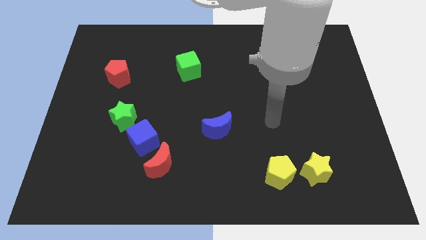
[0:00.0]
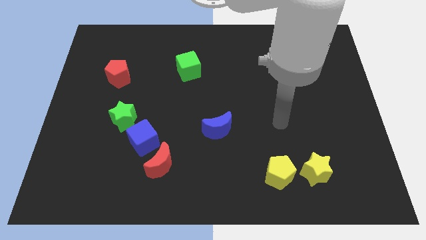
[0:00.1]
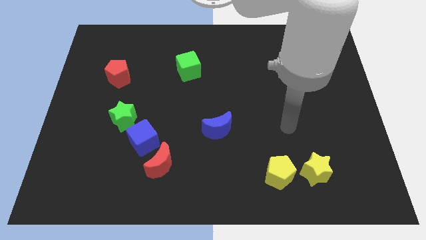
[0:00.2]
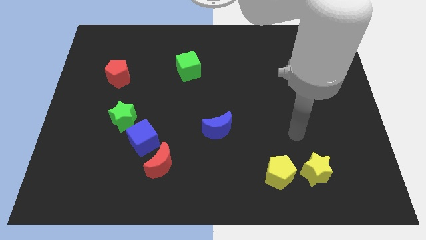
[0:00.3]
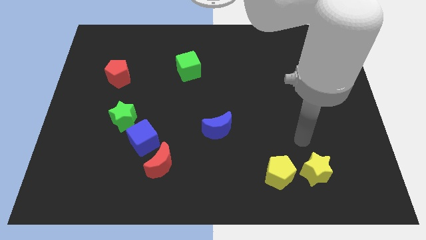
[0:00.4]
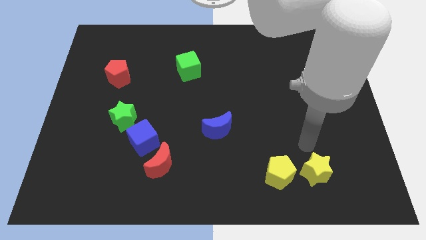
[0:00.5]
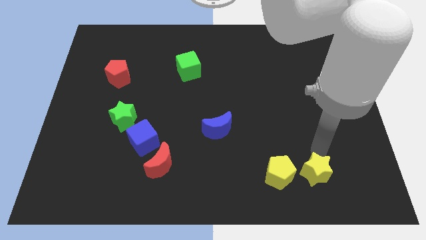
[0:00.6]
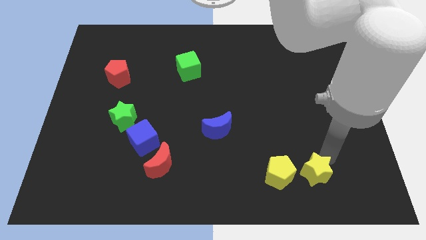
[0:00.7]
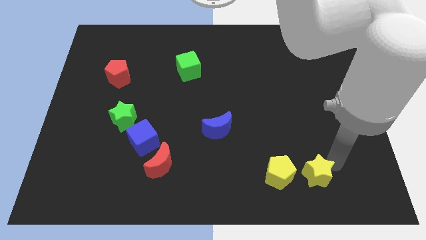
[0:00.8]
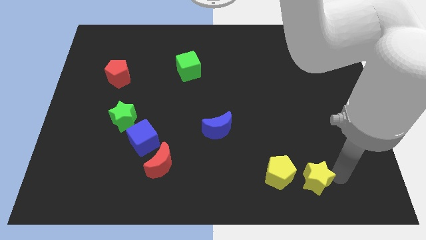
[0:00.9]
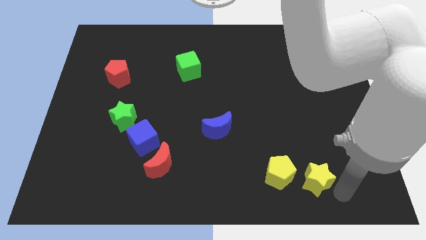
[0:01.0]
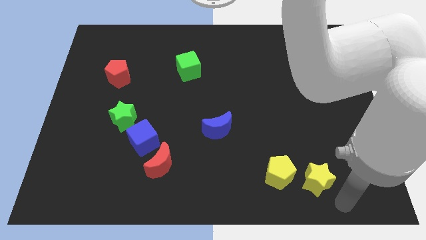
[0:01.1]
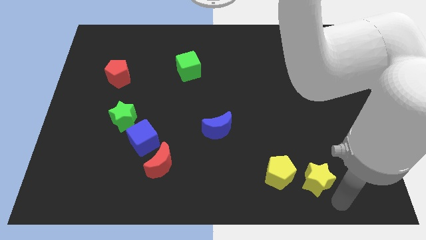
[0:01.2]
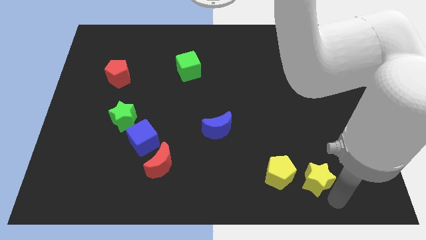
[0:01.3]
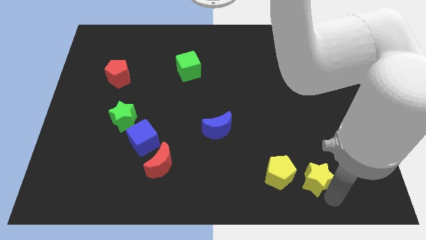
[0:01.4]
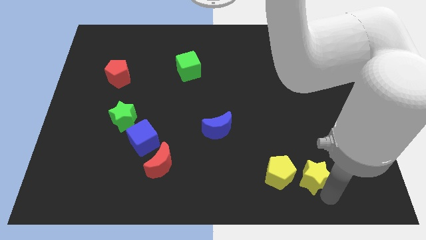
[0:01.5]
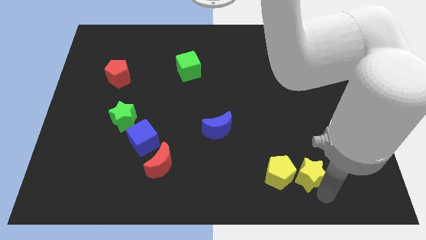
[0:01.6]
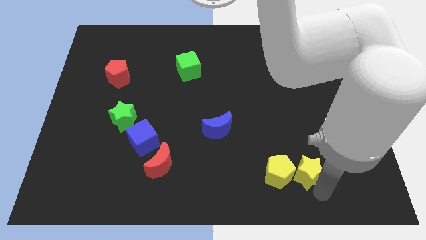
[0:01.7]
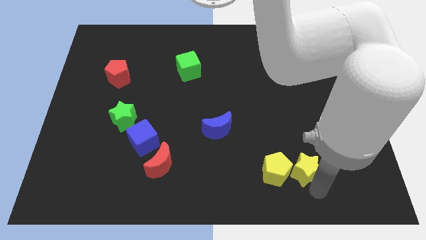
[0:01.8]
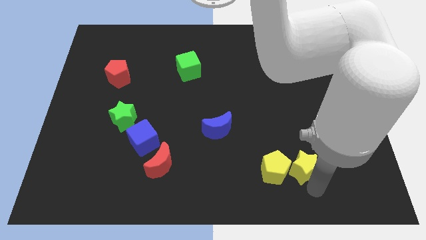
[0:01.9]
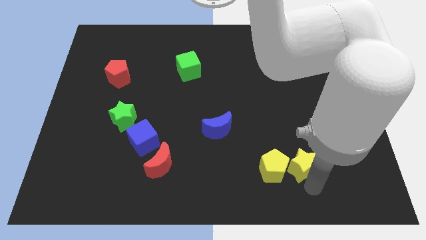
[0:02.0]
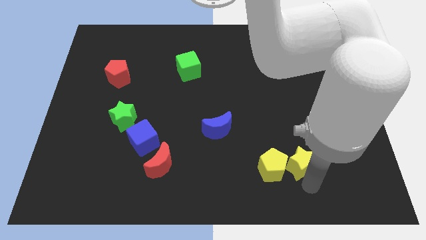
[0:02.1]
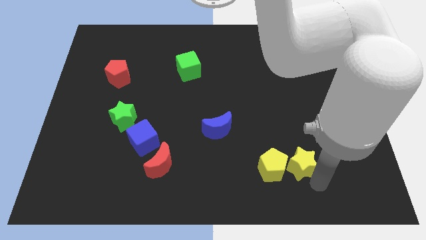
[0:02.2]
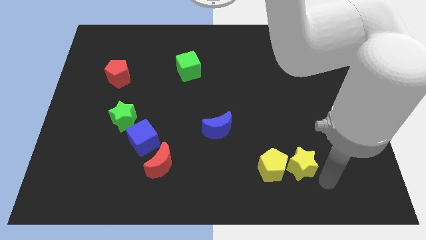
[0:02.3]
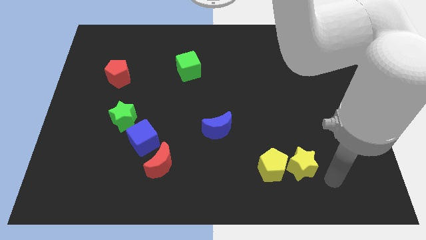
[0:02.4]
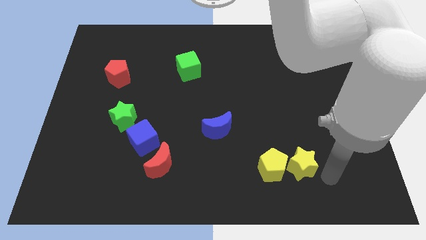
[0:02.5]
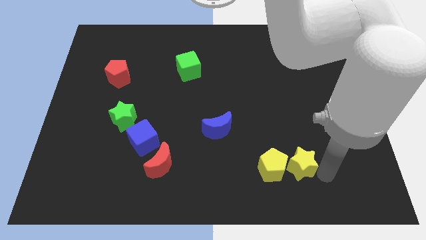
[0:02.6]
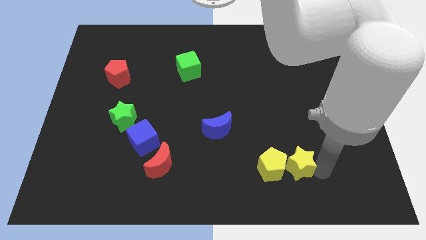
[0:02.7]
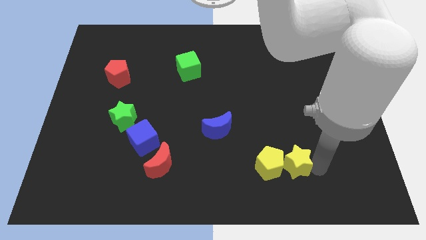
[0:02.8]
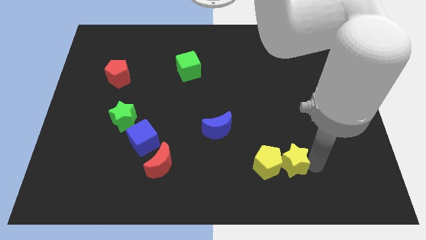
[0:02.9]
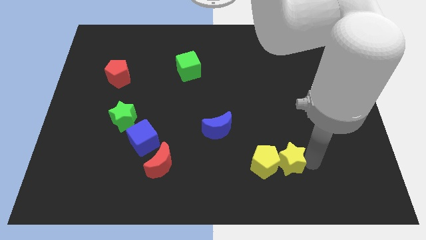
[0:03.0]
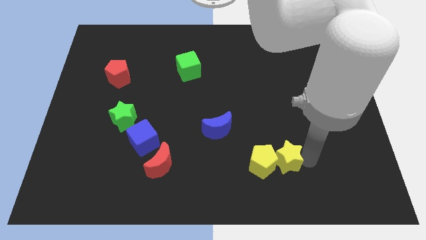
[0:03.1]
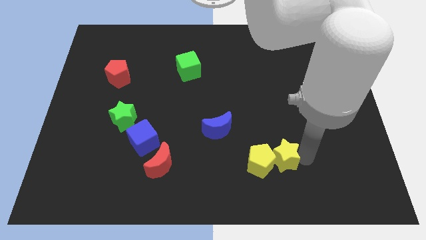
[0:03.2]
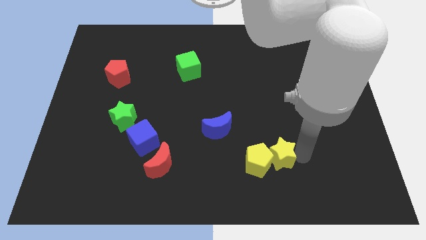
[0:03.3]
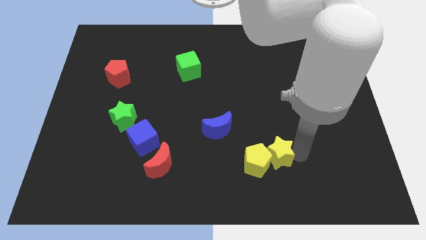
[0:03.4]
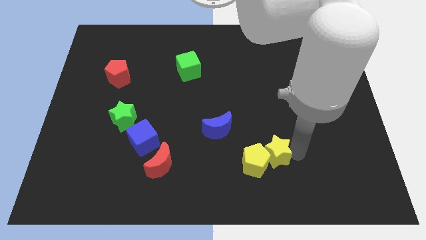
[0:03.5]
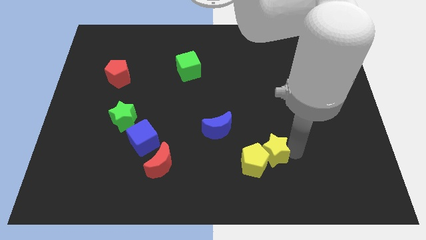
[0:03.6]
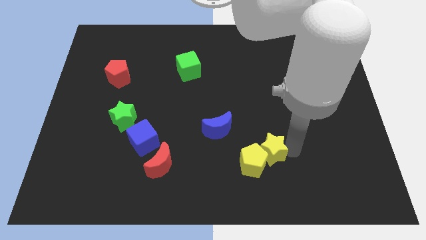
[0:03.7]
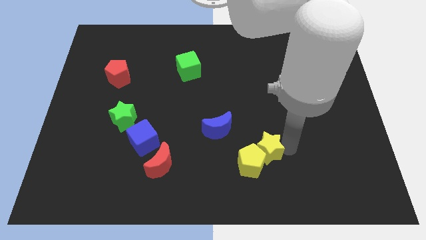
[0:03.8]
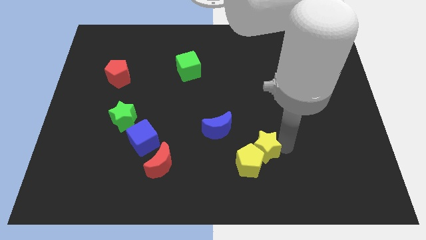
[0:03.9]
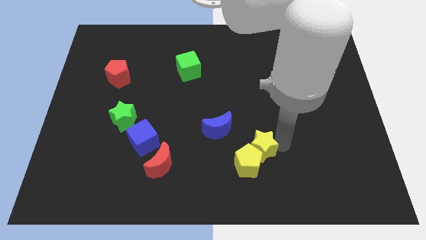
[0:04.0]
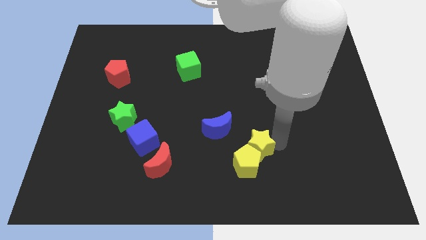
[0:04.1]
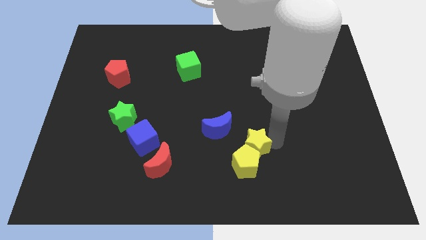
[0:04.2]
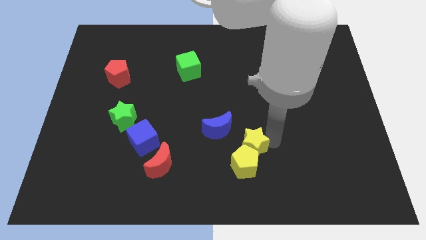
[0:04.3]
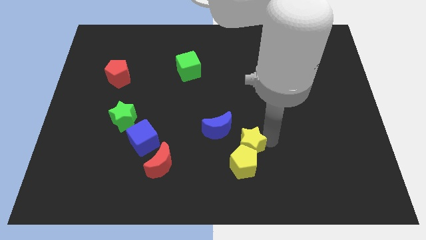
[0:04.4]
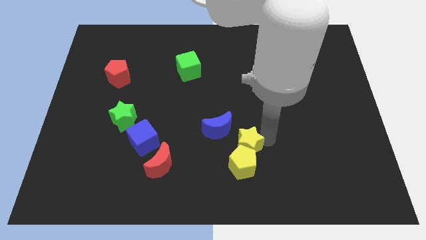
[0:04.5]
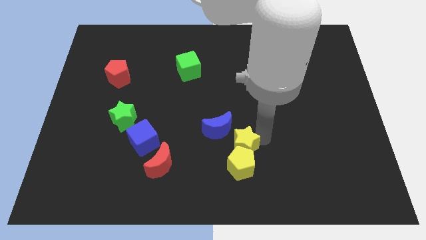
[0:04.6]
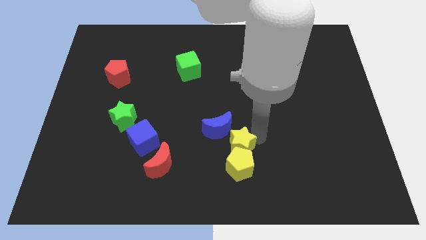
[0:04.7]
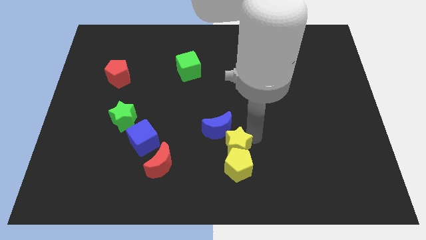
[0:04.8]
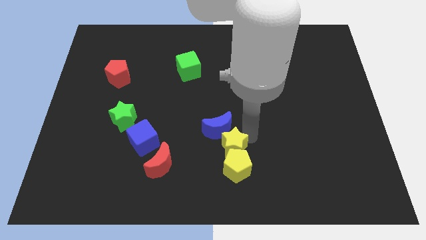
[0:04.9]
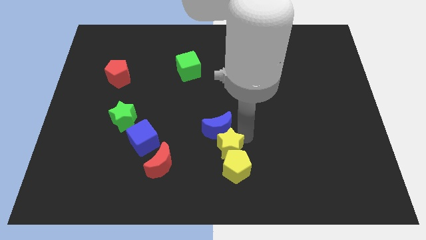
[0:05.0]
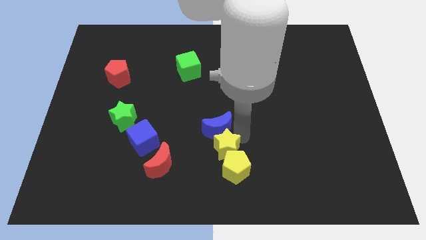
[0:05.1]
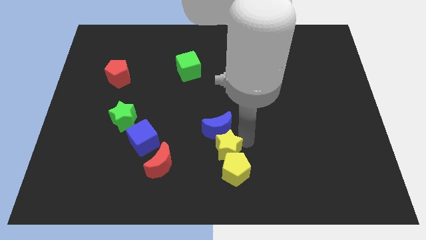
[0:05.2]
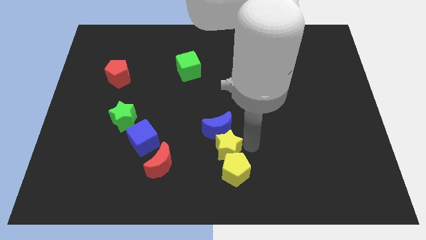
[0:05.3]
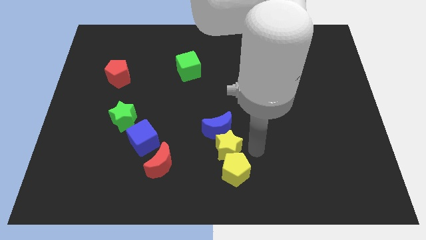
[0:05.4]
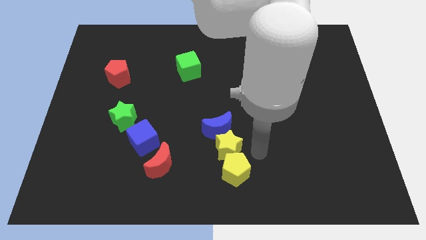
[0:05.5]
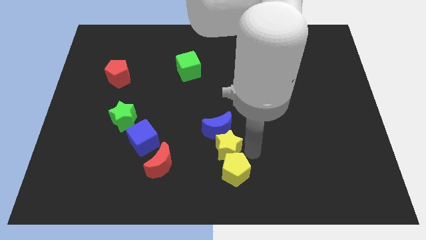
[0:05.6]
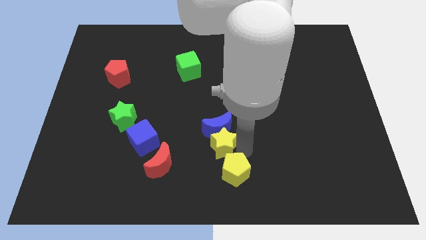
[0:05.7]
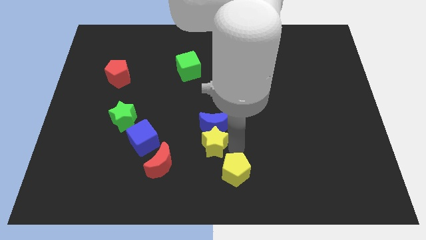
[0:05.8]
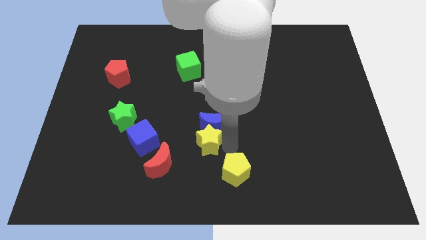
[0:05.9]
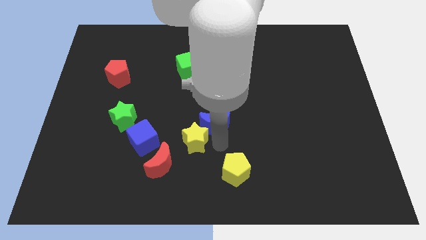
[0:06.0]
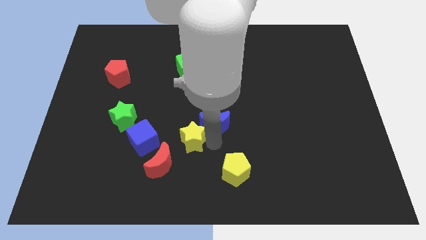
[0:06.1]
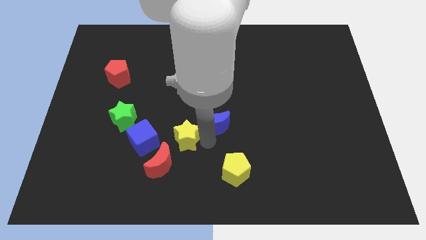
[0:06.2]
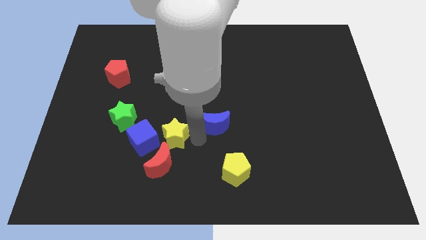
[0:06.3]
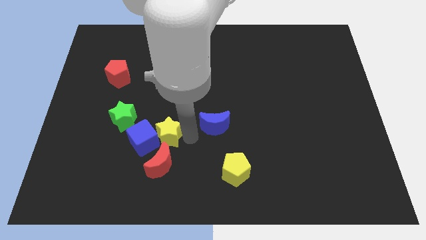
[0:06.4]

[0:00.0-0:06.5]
slide the yellow star to the blue cube
